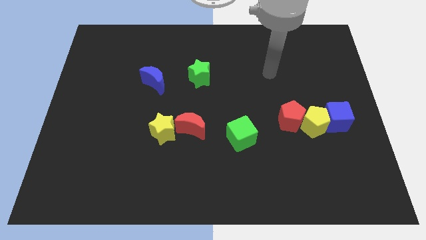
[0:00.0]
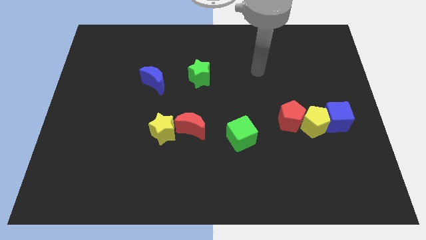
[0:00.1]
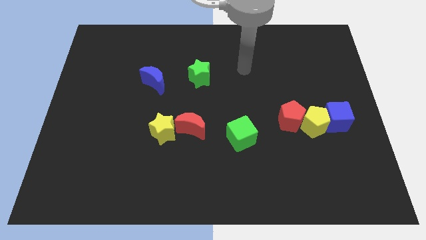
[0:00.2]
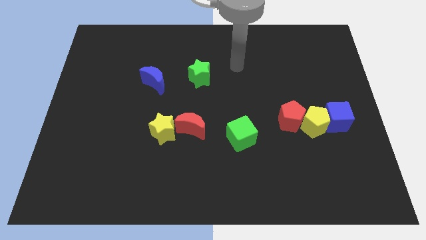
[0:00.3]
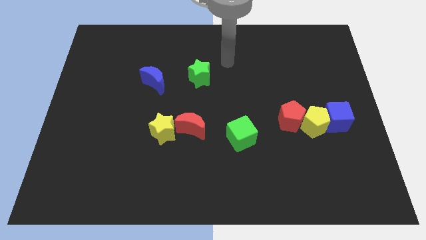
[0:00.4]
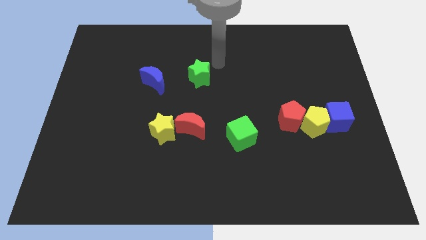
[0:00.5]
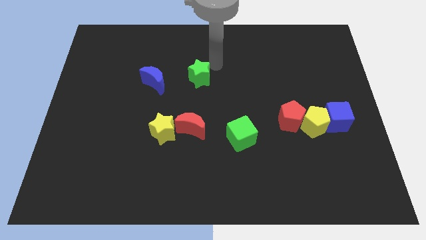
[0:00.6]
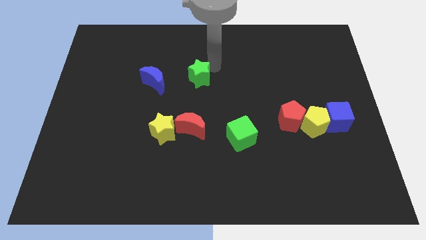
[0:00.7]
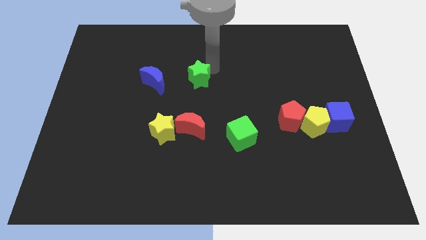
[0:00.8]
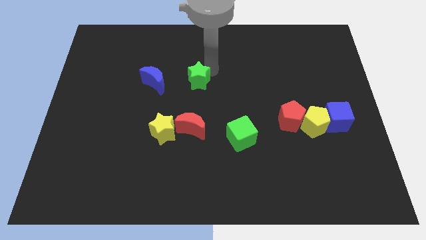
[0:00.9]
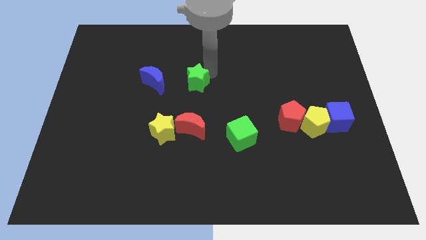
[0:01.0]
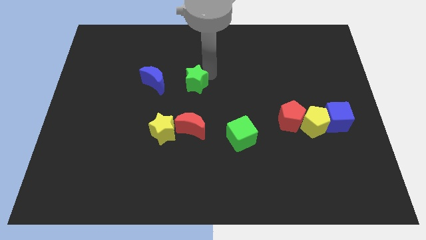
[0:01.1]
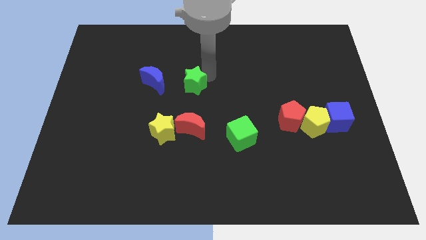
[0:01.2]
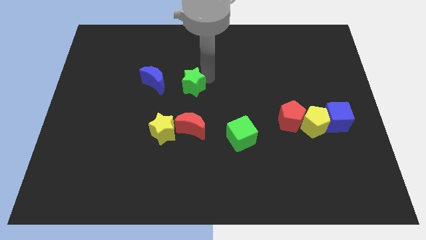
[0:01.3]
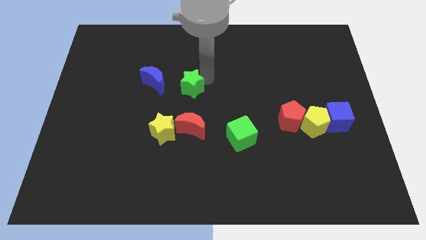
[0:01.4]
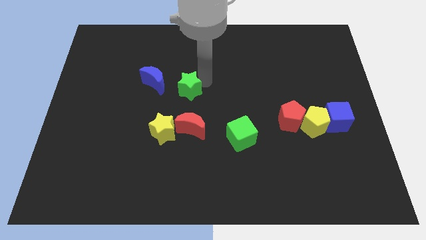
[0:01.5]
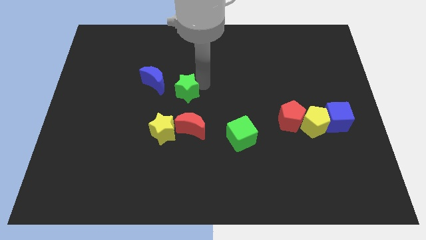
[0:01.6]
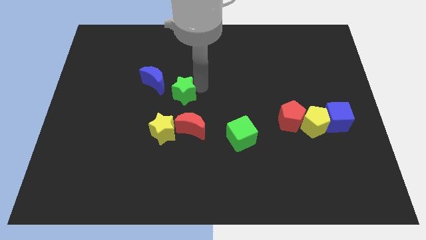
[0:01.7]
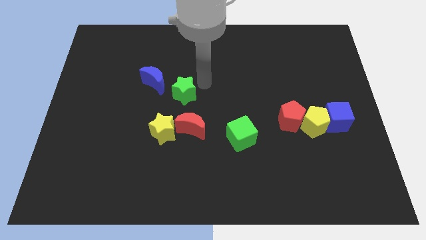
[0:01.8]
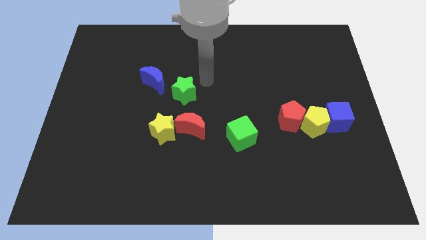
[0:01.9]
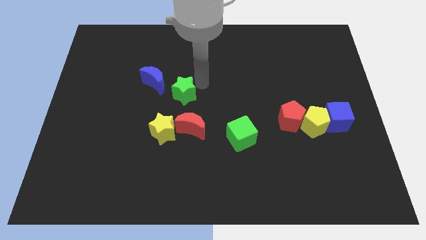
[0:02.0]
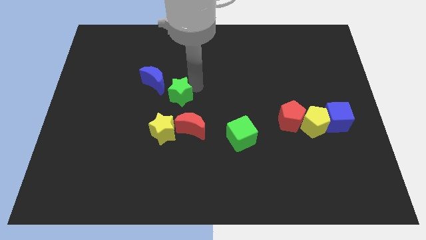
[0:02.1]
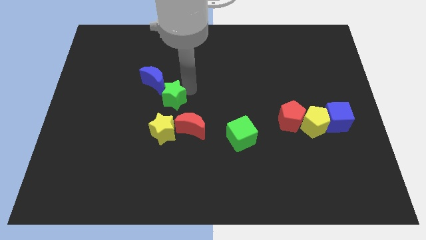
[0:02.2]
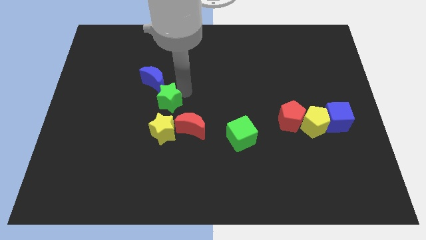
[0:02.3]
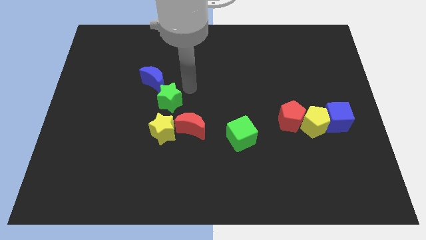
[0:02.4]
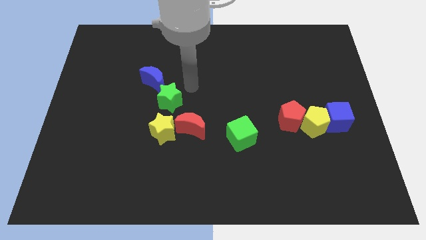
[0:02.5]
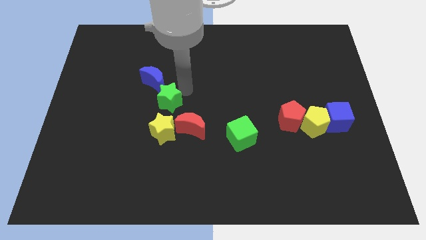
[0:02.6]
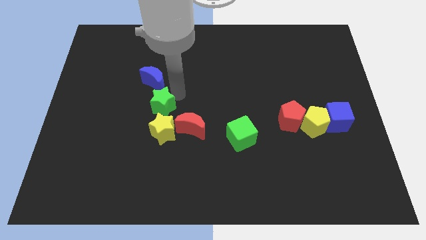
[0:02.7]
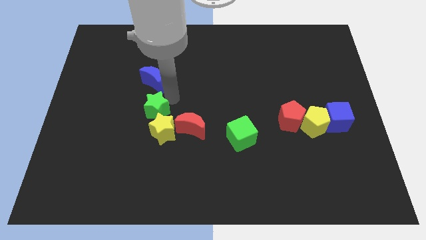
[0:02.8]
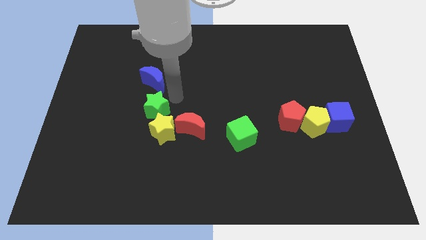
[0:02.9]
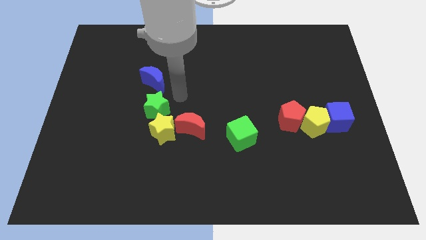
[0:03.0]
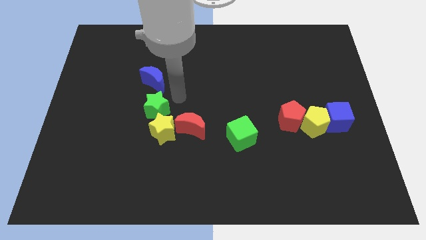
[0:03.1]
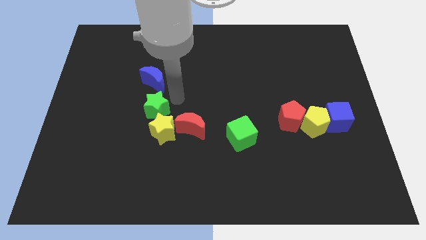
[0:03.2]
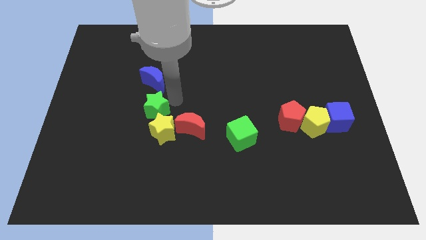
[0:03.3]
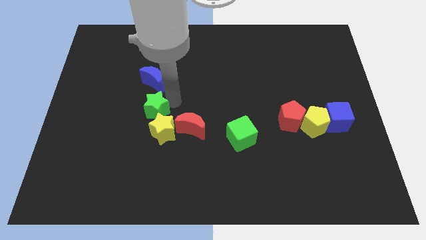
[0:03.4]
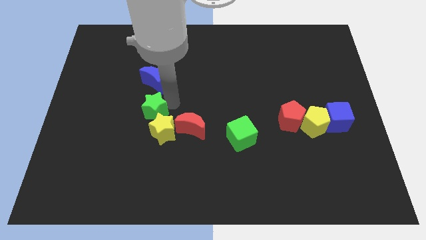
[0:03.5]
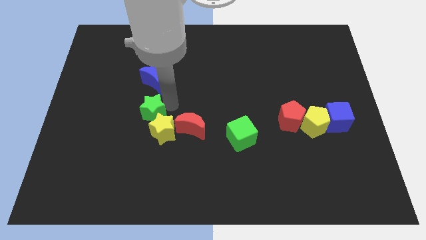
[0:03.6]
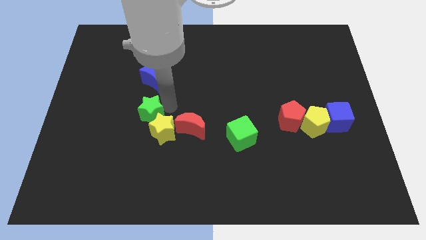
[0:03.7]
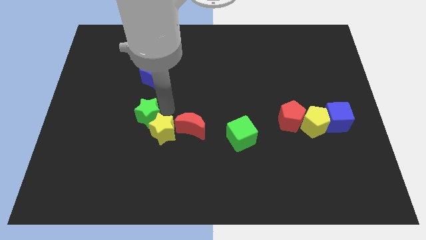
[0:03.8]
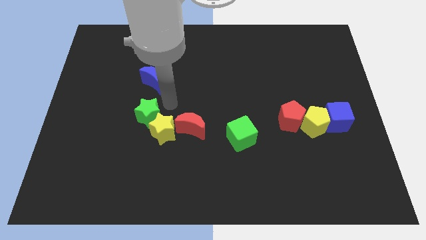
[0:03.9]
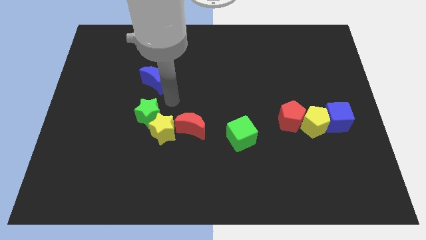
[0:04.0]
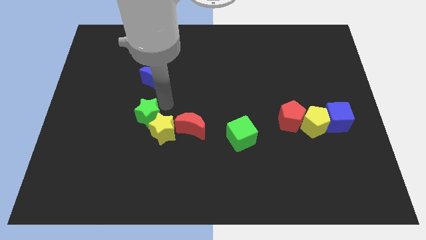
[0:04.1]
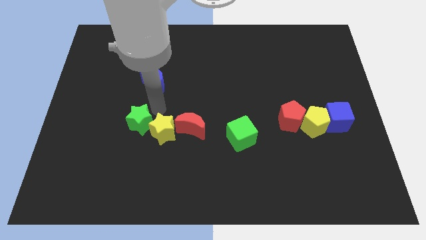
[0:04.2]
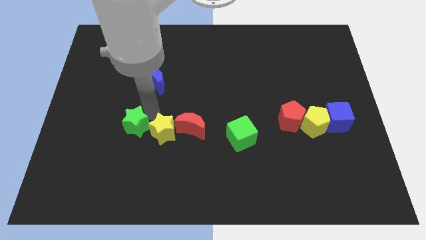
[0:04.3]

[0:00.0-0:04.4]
push the green star diagonally downwards and left

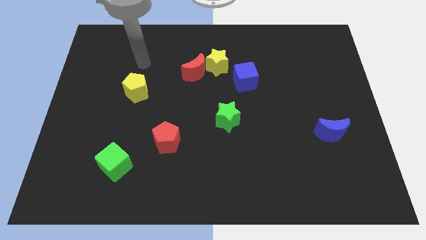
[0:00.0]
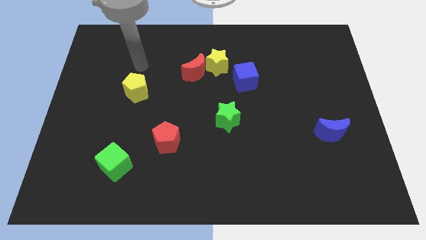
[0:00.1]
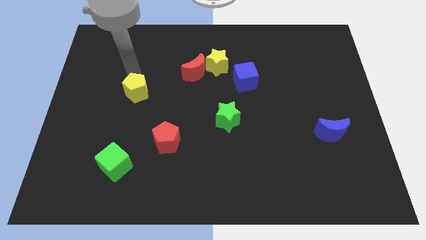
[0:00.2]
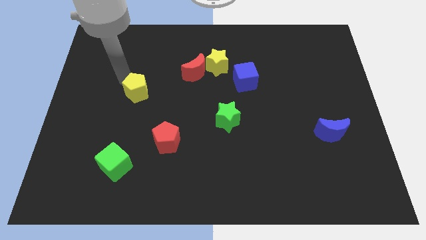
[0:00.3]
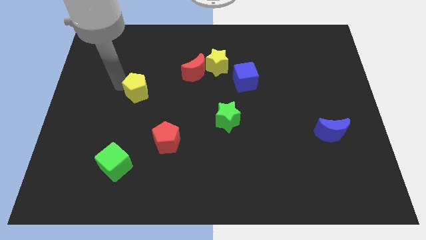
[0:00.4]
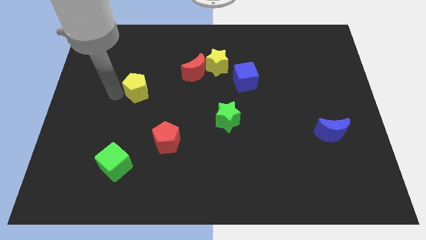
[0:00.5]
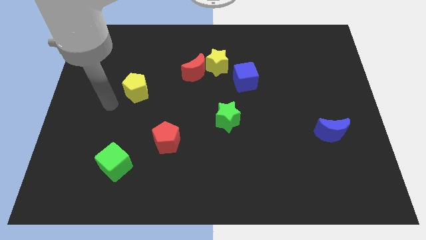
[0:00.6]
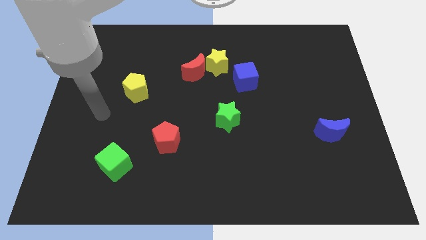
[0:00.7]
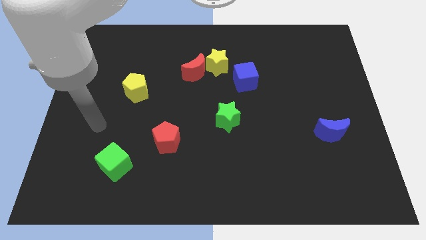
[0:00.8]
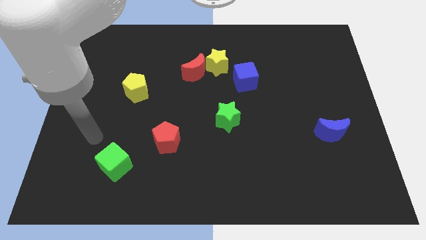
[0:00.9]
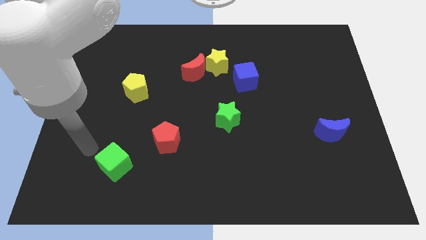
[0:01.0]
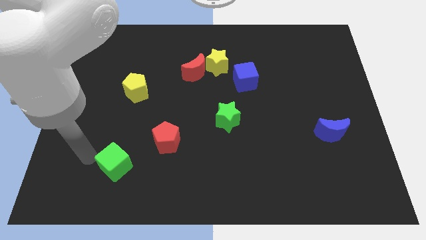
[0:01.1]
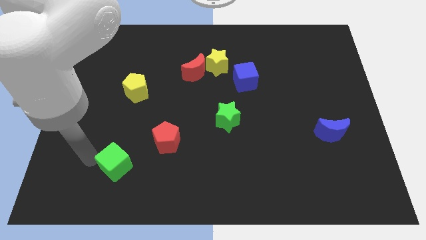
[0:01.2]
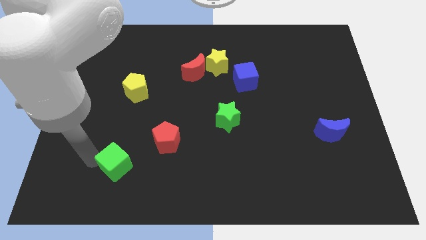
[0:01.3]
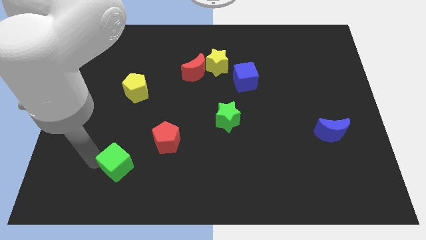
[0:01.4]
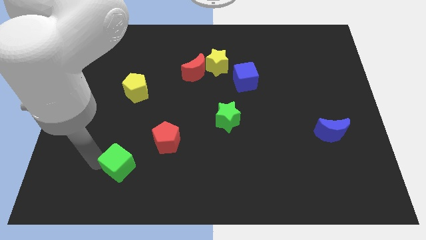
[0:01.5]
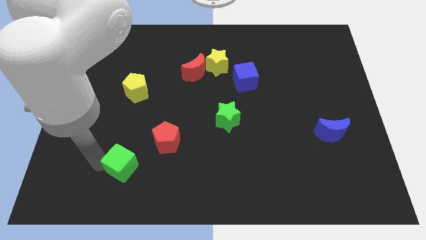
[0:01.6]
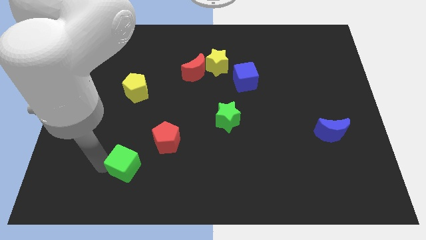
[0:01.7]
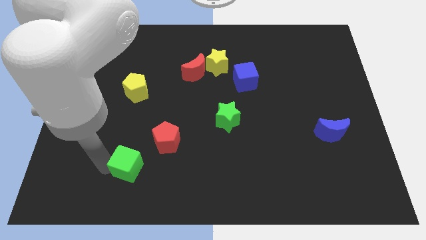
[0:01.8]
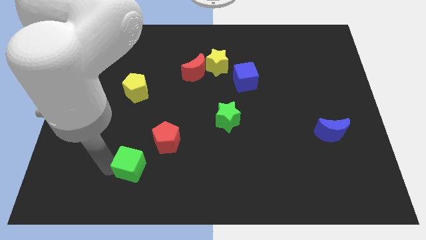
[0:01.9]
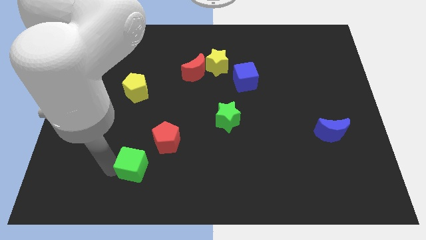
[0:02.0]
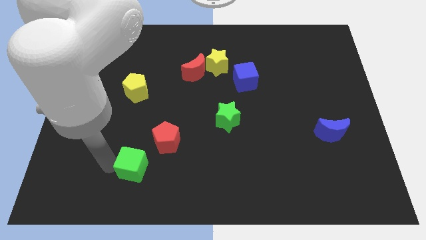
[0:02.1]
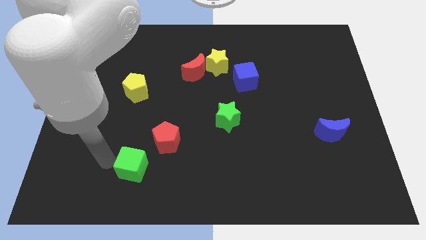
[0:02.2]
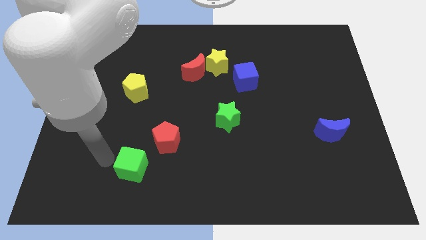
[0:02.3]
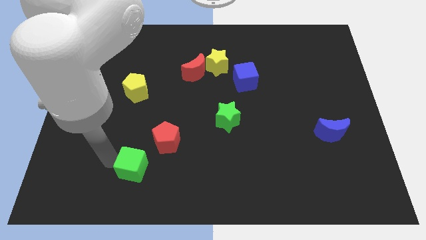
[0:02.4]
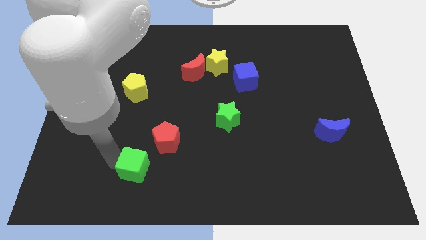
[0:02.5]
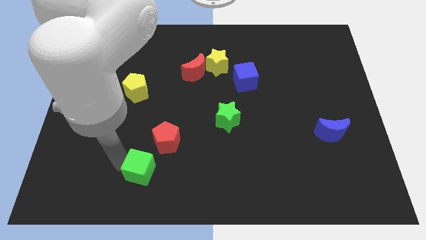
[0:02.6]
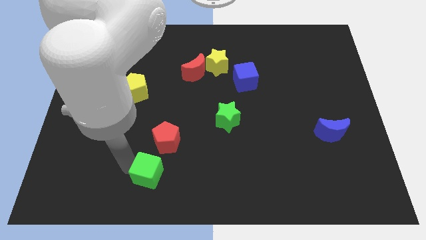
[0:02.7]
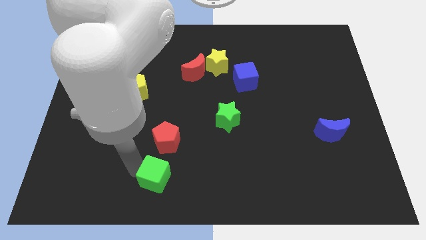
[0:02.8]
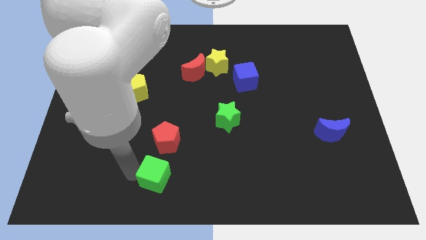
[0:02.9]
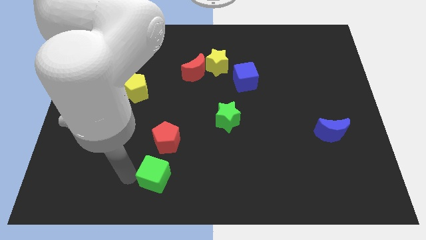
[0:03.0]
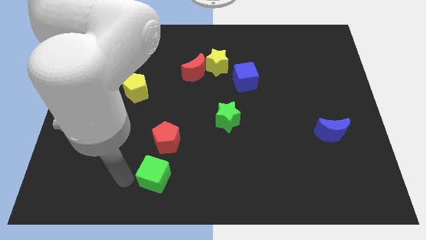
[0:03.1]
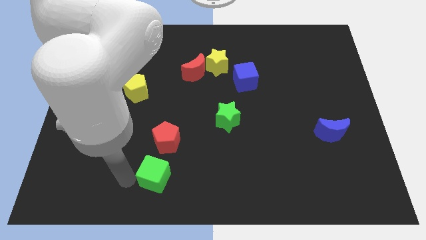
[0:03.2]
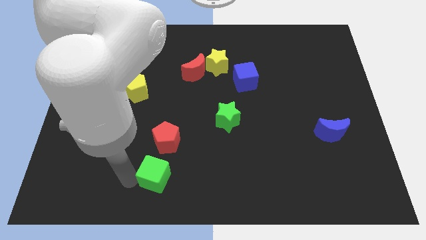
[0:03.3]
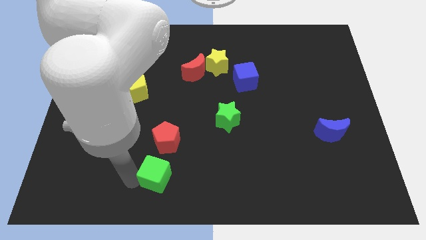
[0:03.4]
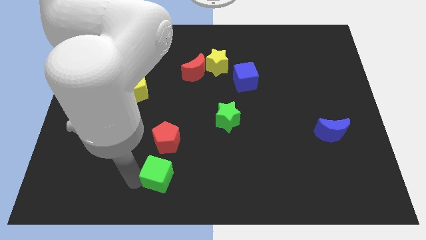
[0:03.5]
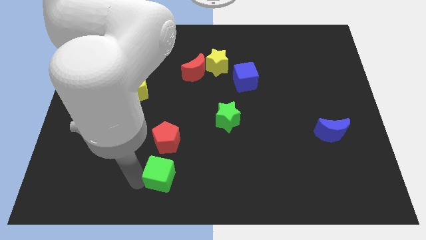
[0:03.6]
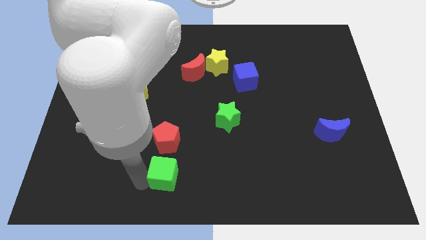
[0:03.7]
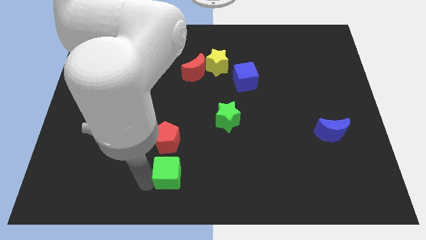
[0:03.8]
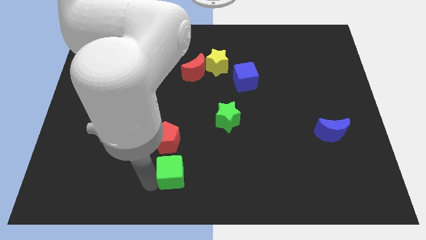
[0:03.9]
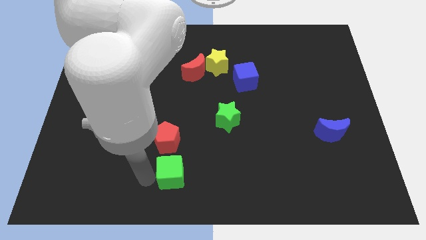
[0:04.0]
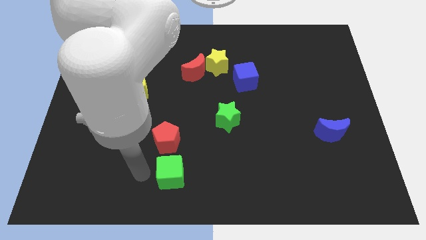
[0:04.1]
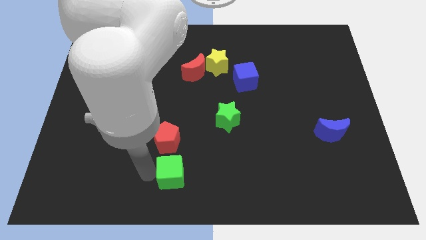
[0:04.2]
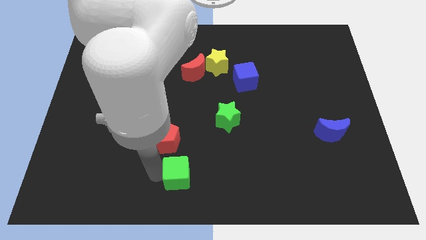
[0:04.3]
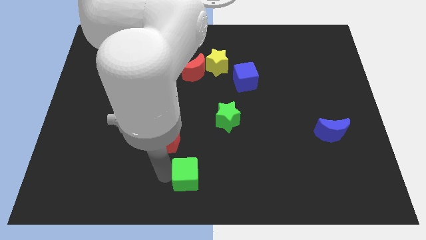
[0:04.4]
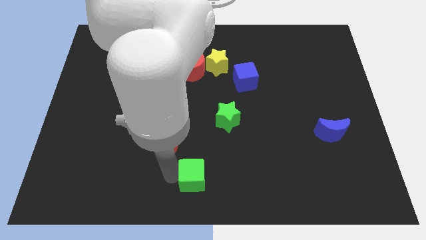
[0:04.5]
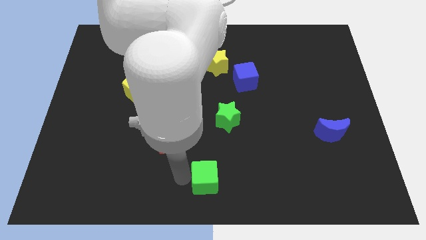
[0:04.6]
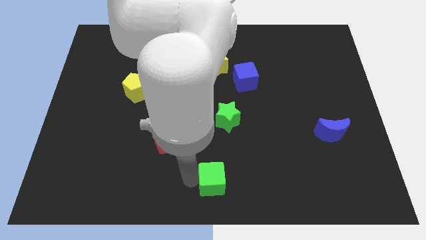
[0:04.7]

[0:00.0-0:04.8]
slide the green cube to the right
